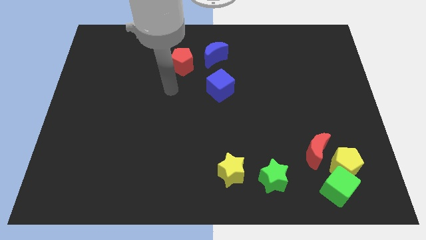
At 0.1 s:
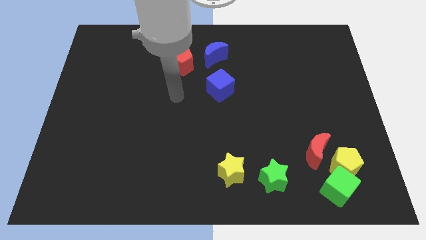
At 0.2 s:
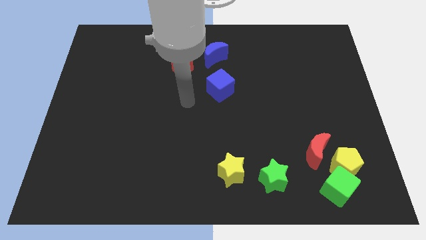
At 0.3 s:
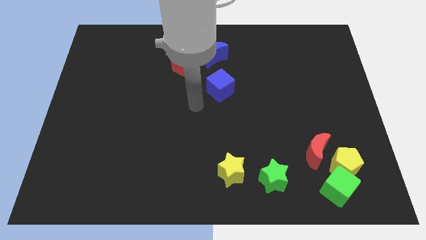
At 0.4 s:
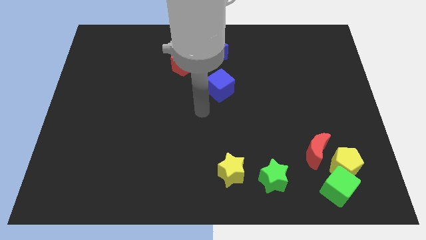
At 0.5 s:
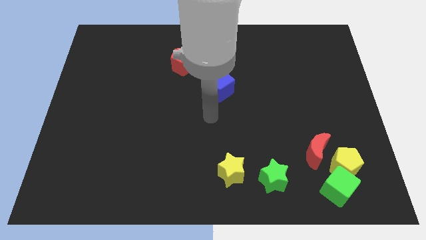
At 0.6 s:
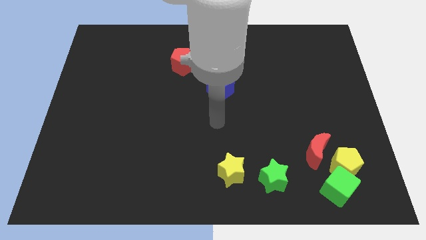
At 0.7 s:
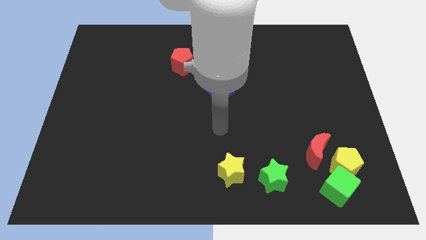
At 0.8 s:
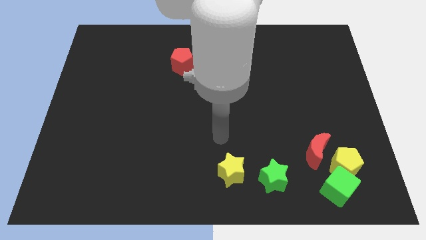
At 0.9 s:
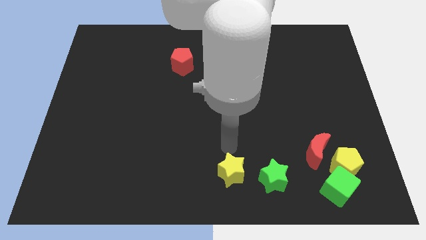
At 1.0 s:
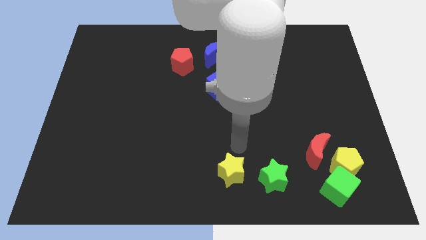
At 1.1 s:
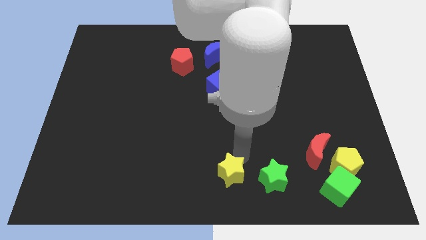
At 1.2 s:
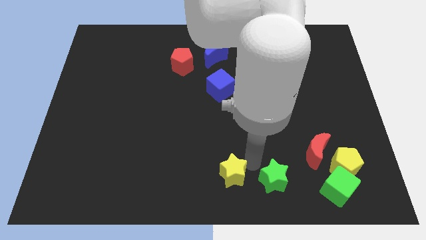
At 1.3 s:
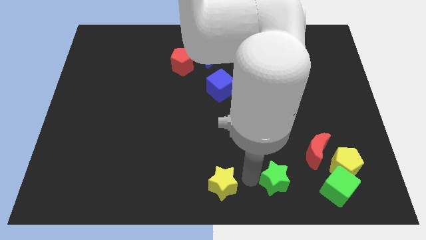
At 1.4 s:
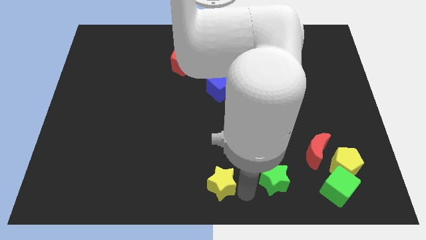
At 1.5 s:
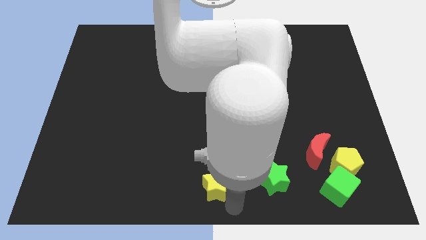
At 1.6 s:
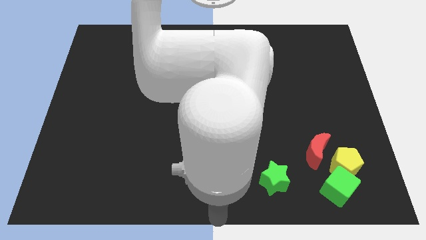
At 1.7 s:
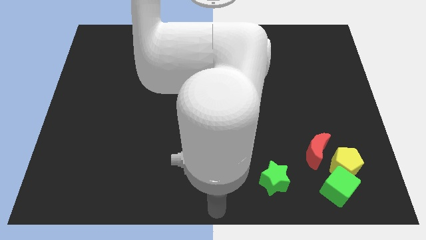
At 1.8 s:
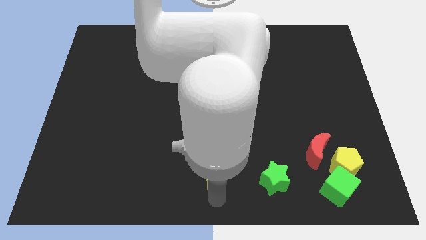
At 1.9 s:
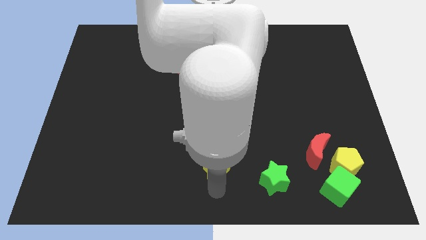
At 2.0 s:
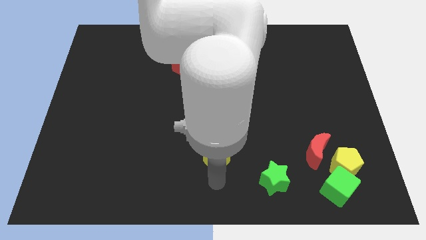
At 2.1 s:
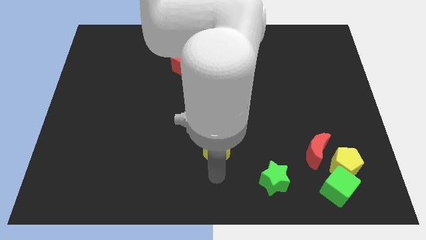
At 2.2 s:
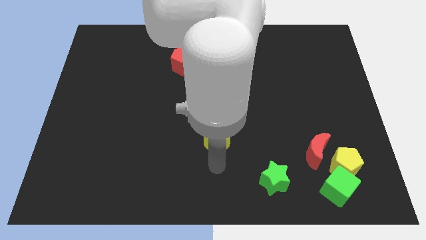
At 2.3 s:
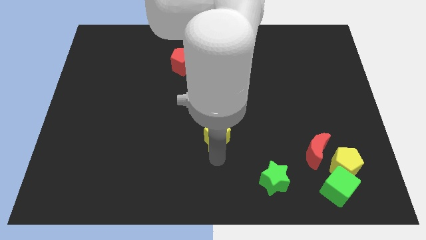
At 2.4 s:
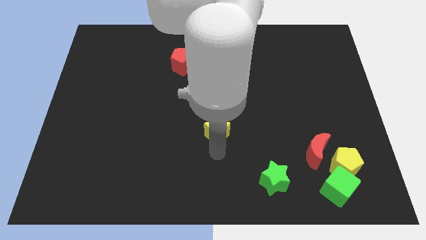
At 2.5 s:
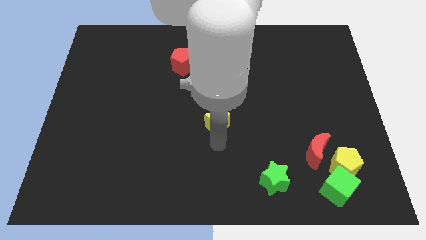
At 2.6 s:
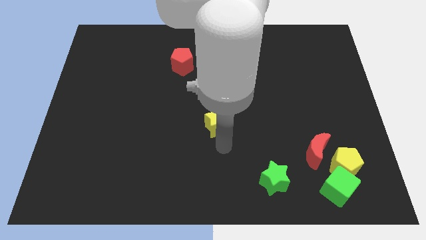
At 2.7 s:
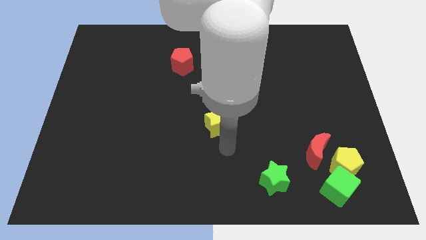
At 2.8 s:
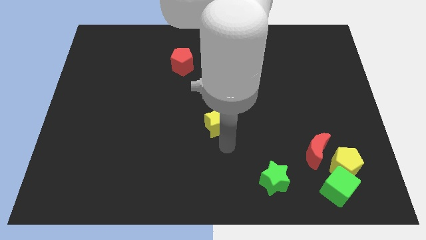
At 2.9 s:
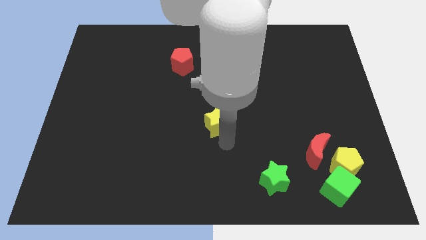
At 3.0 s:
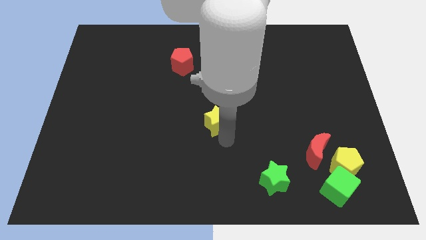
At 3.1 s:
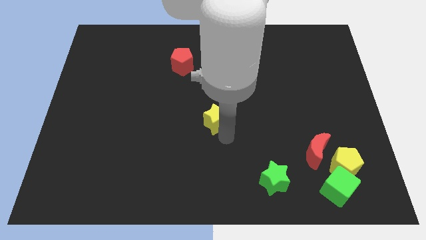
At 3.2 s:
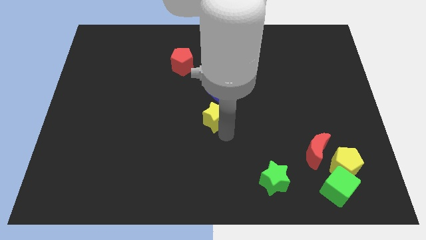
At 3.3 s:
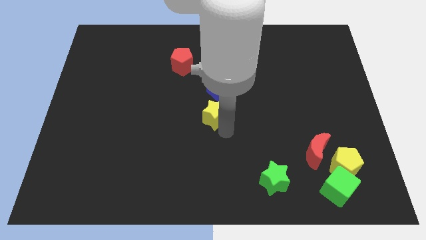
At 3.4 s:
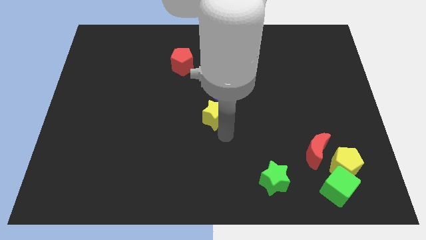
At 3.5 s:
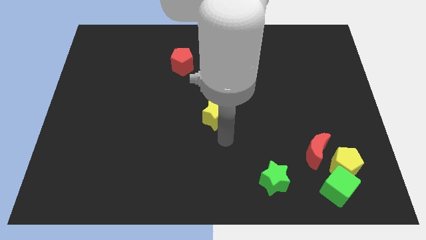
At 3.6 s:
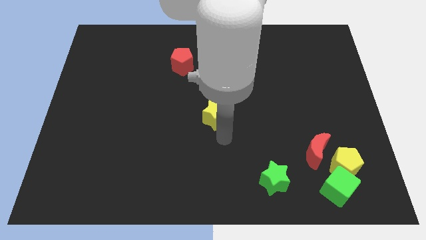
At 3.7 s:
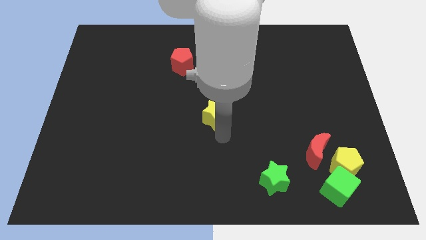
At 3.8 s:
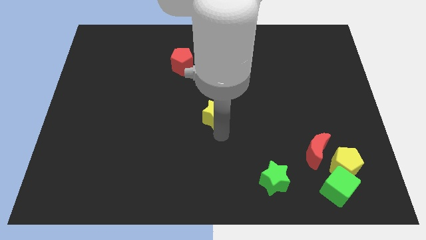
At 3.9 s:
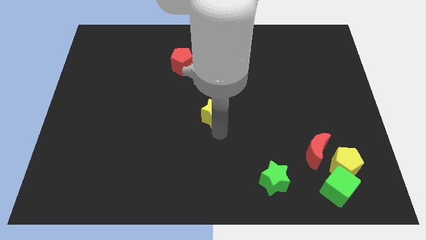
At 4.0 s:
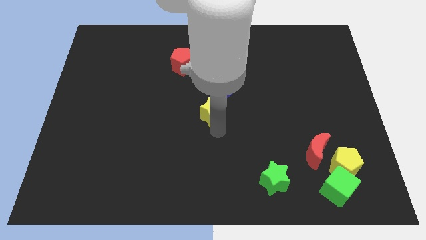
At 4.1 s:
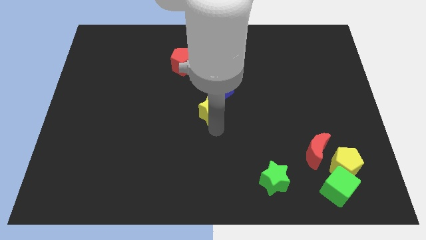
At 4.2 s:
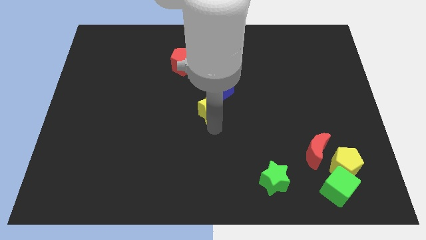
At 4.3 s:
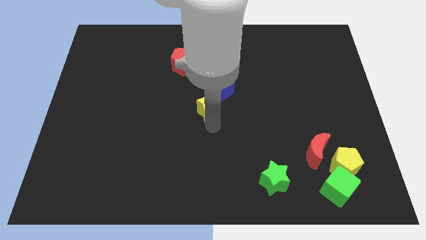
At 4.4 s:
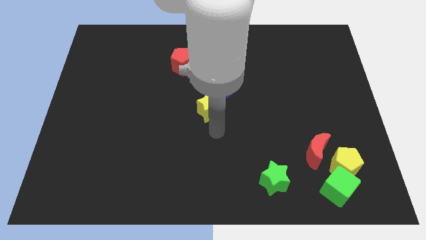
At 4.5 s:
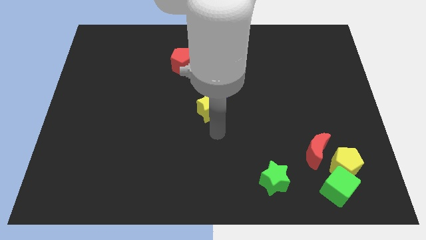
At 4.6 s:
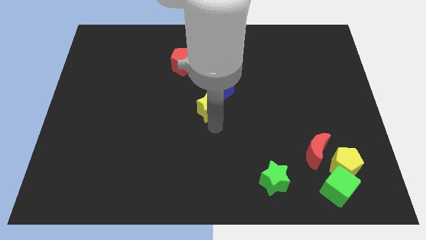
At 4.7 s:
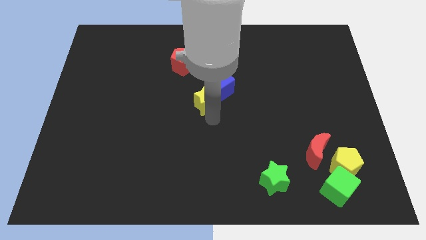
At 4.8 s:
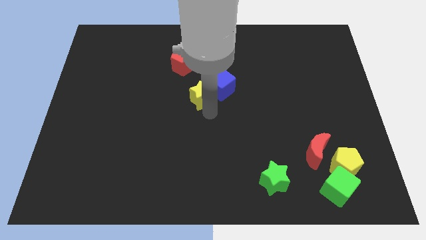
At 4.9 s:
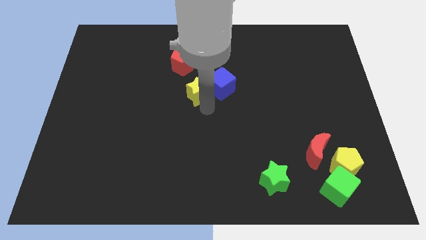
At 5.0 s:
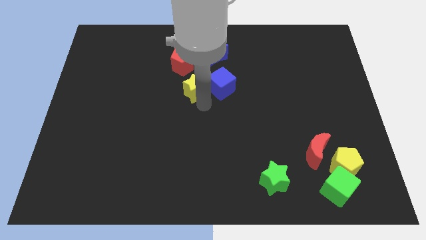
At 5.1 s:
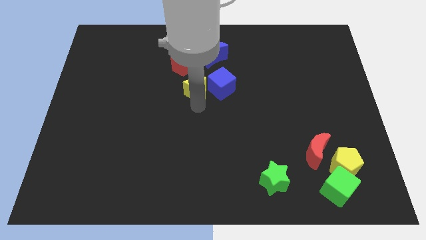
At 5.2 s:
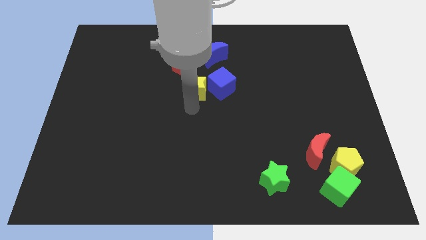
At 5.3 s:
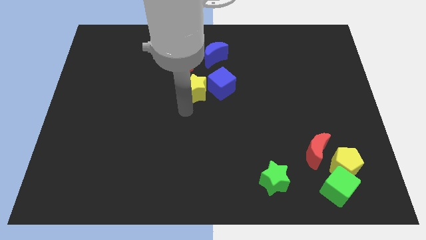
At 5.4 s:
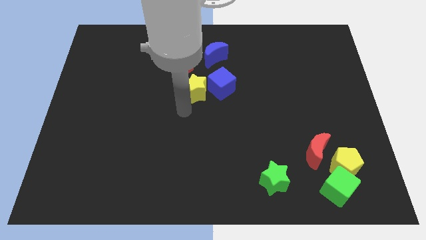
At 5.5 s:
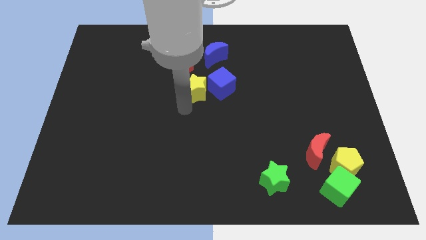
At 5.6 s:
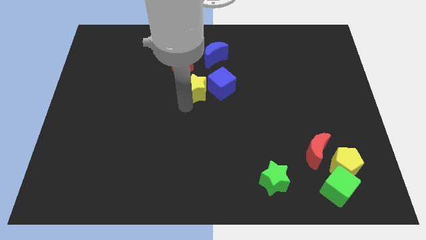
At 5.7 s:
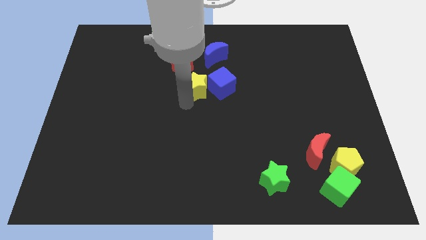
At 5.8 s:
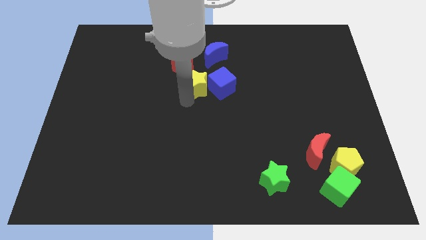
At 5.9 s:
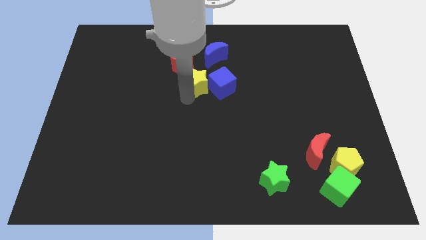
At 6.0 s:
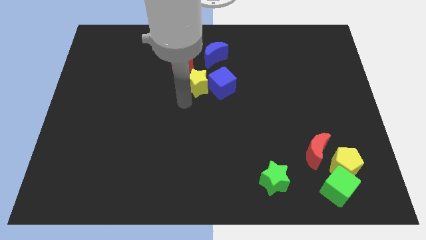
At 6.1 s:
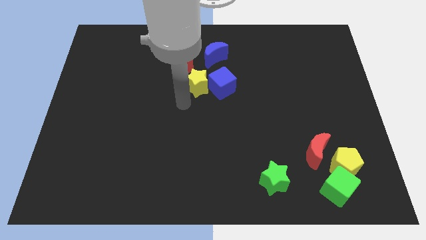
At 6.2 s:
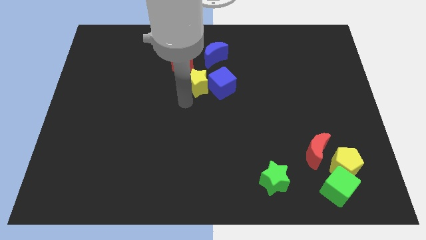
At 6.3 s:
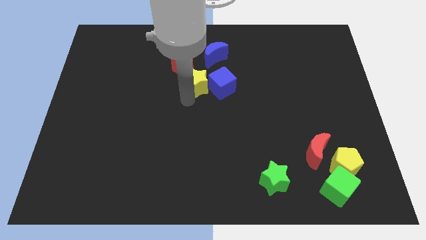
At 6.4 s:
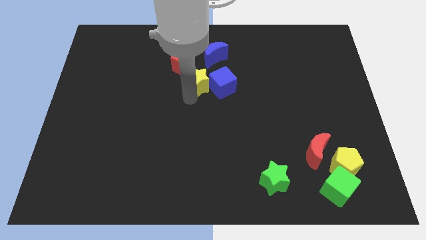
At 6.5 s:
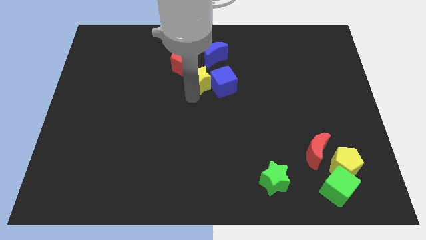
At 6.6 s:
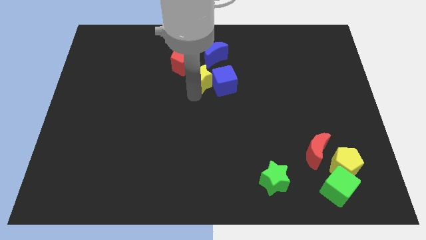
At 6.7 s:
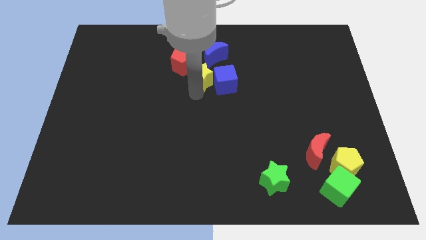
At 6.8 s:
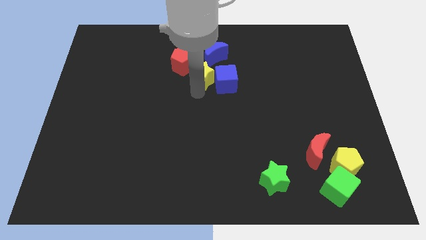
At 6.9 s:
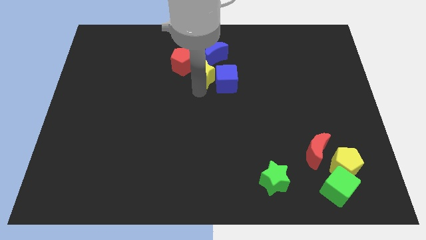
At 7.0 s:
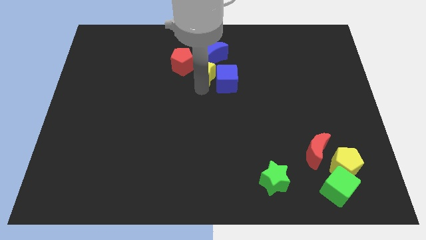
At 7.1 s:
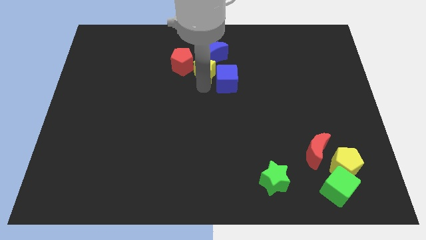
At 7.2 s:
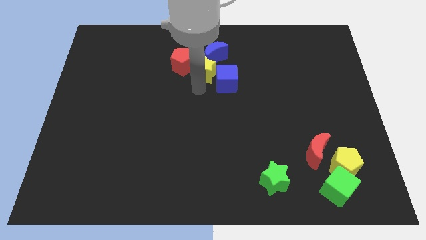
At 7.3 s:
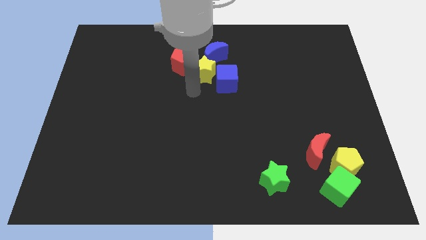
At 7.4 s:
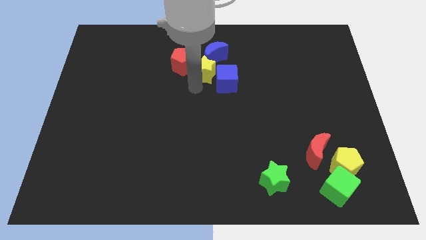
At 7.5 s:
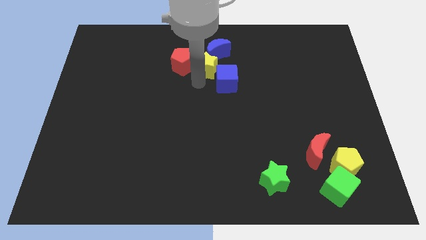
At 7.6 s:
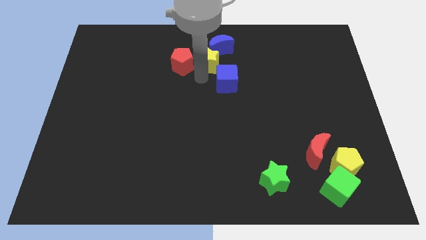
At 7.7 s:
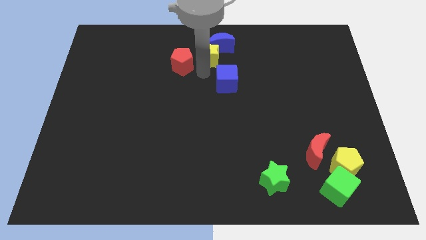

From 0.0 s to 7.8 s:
push the yellow star close to the blue moon
